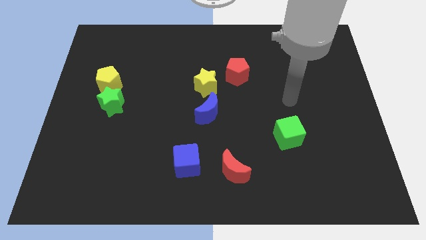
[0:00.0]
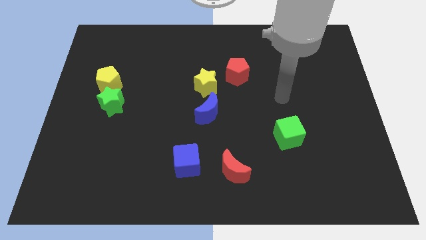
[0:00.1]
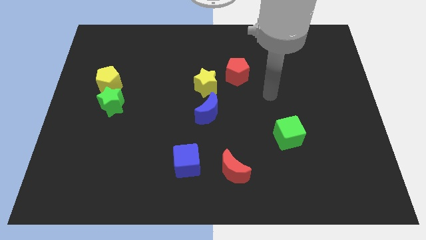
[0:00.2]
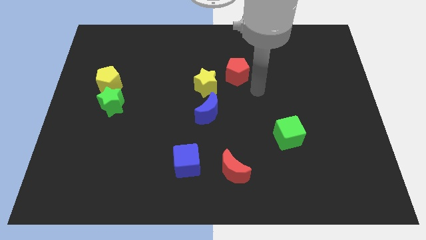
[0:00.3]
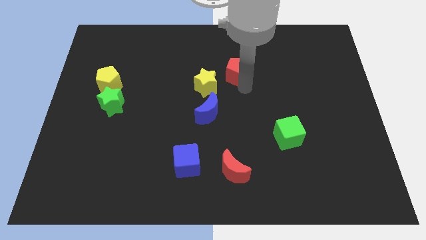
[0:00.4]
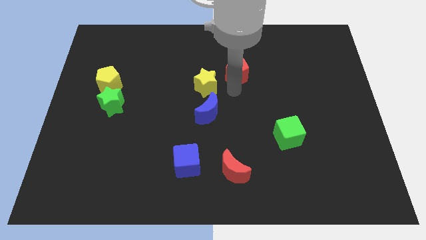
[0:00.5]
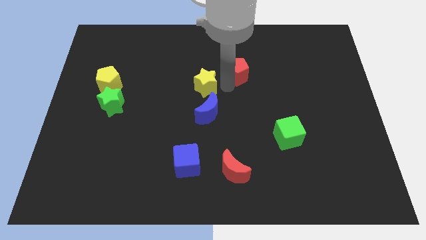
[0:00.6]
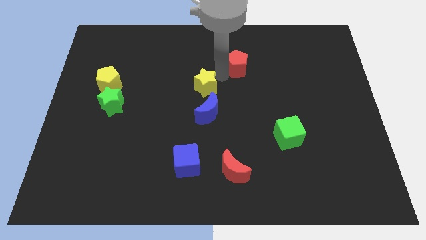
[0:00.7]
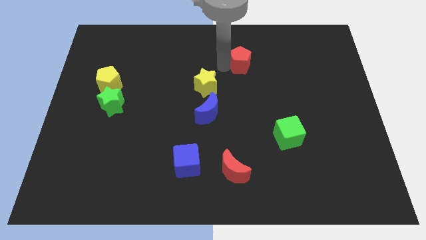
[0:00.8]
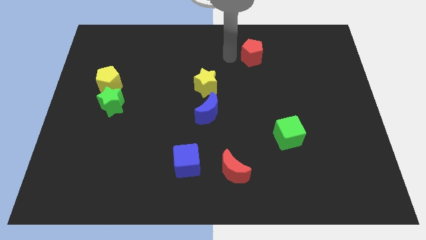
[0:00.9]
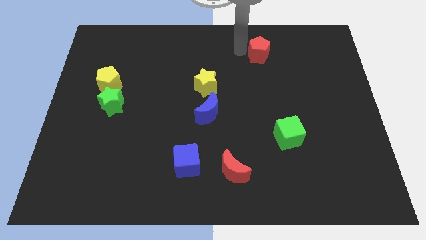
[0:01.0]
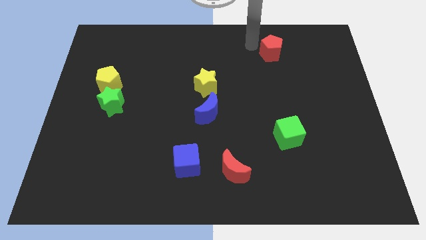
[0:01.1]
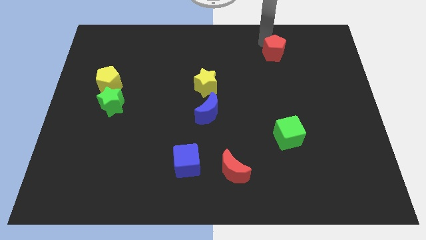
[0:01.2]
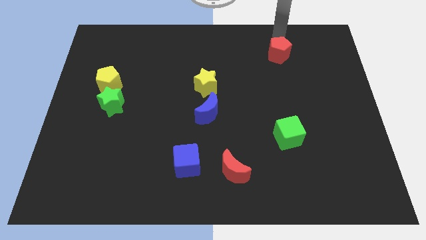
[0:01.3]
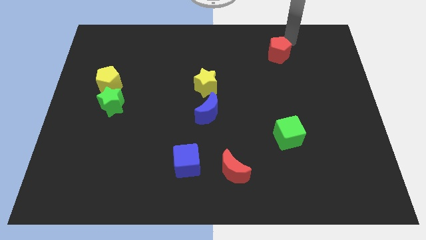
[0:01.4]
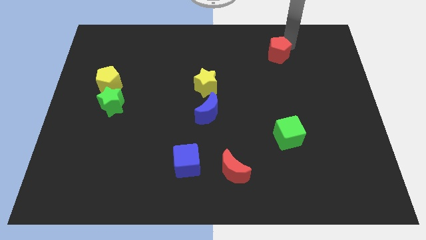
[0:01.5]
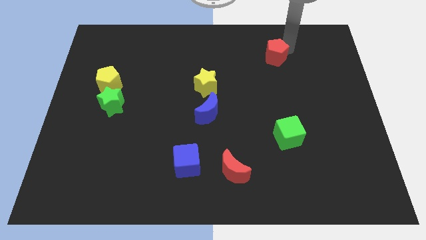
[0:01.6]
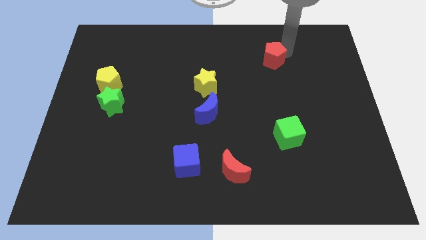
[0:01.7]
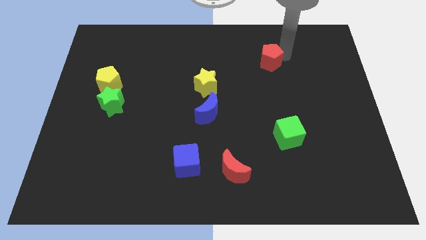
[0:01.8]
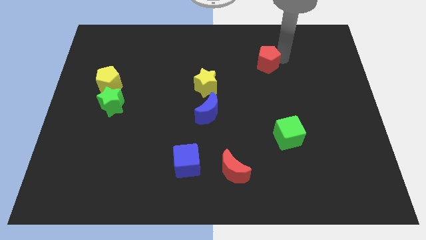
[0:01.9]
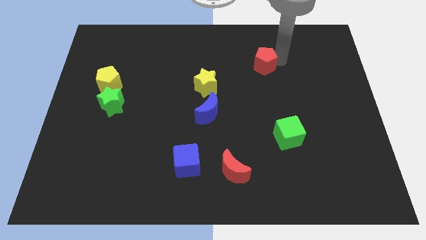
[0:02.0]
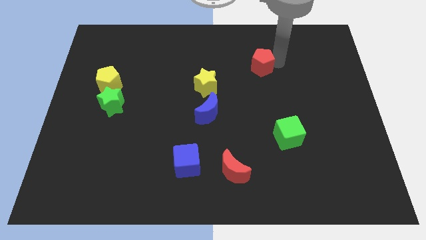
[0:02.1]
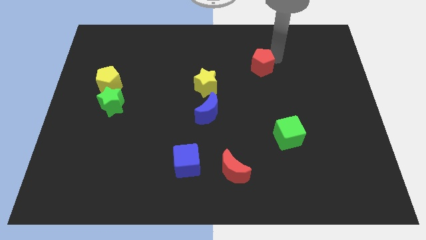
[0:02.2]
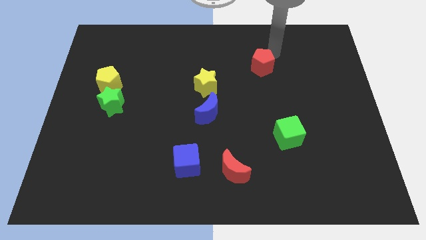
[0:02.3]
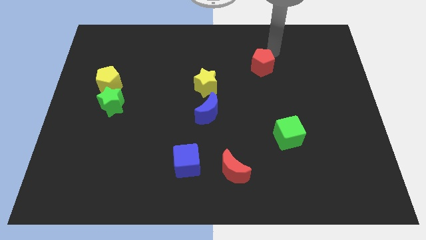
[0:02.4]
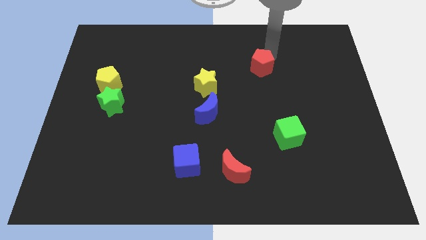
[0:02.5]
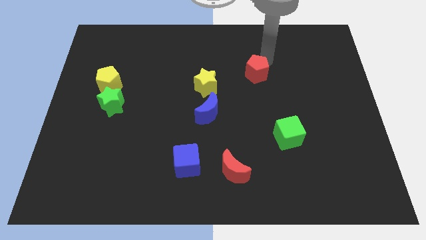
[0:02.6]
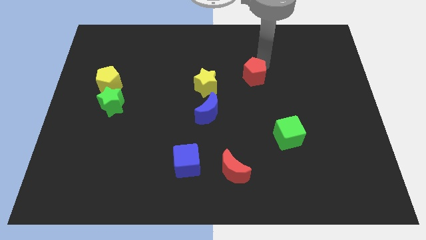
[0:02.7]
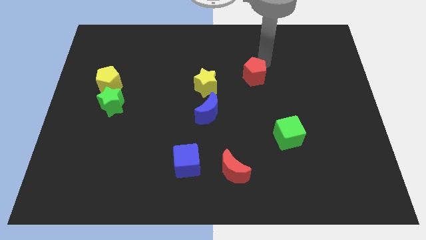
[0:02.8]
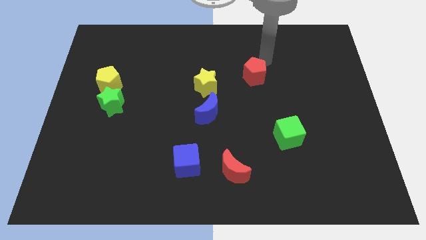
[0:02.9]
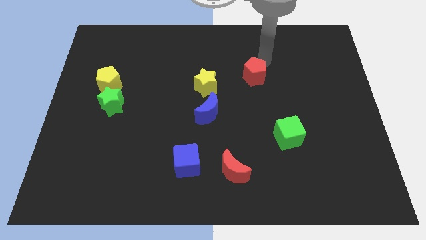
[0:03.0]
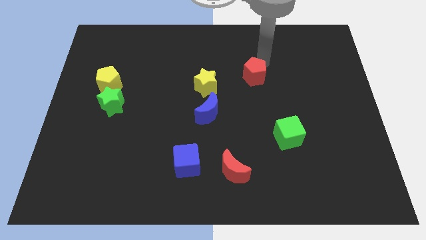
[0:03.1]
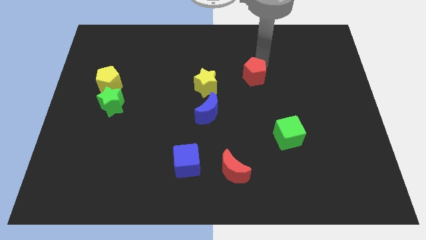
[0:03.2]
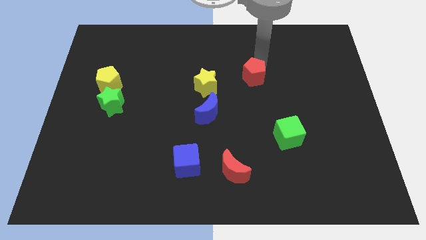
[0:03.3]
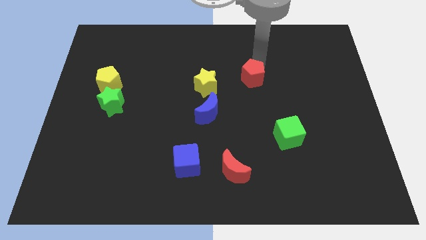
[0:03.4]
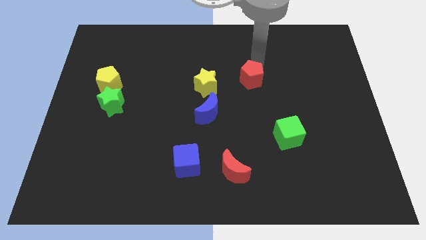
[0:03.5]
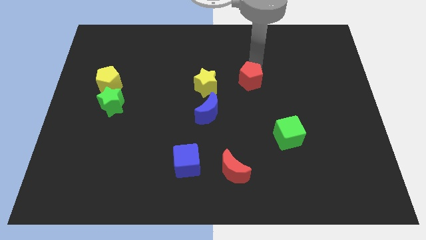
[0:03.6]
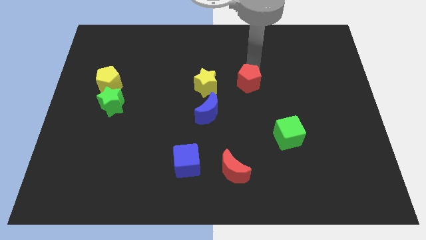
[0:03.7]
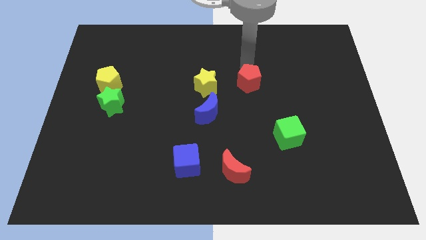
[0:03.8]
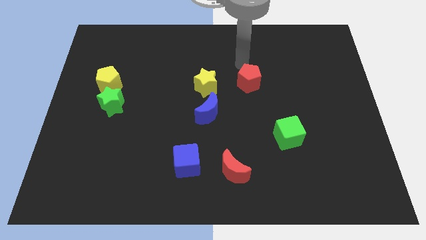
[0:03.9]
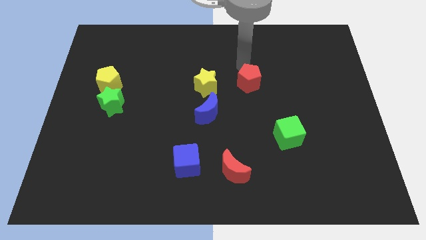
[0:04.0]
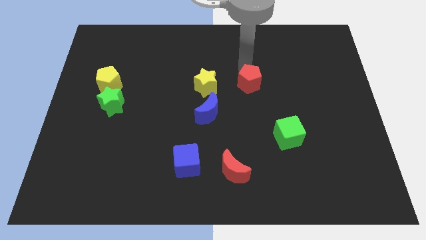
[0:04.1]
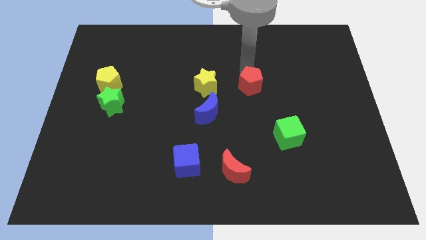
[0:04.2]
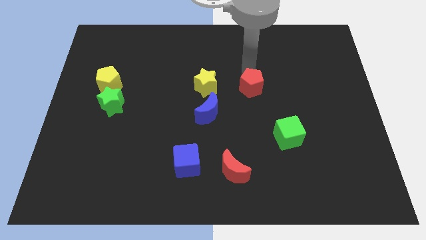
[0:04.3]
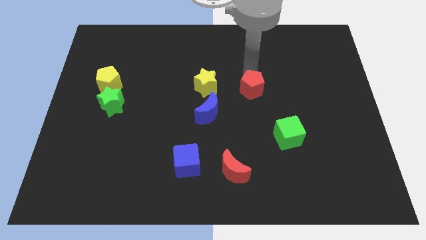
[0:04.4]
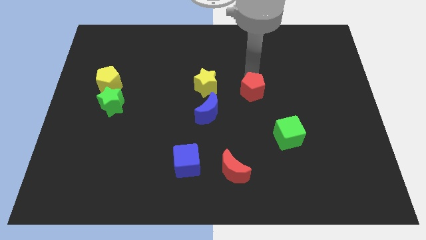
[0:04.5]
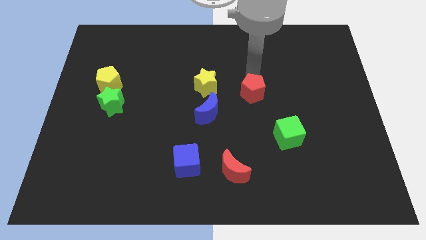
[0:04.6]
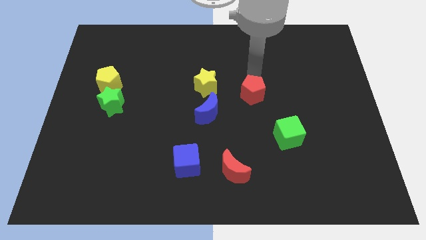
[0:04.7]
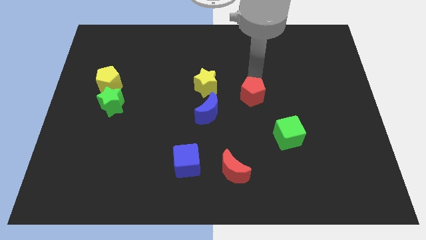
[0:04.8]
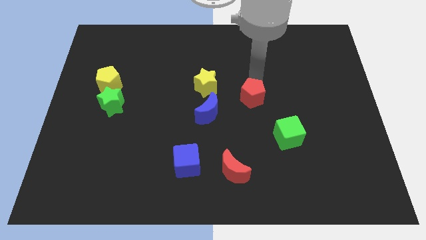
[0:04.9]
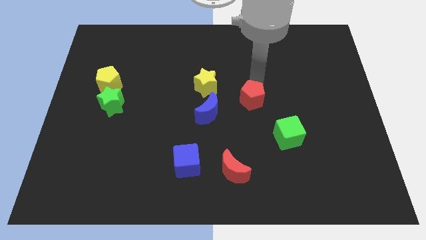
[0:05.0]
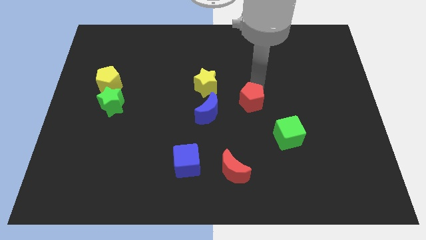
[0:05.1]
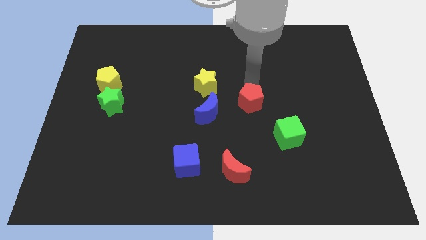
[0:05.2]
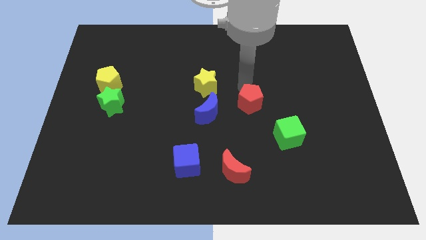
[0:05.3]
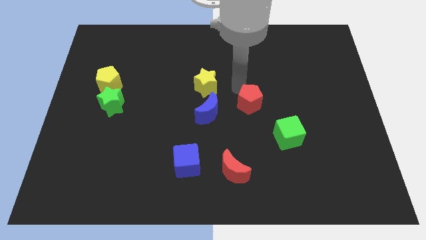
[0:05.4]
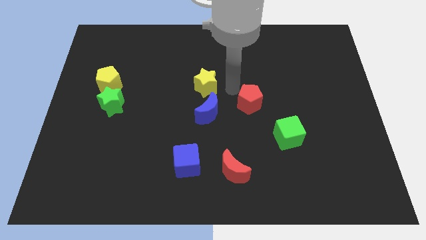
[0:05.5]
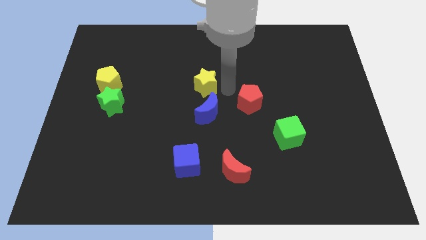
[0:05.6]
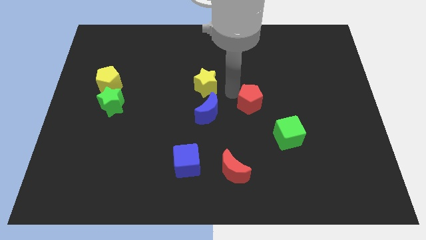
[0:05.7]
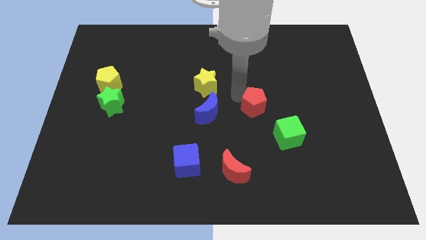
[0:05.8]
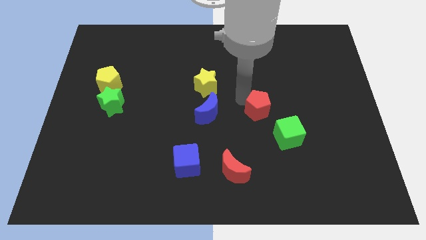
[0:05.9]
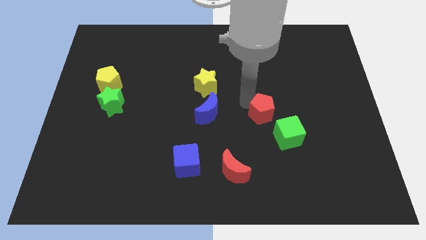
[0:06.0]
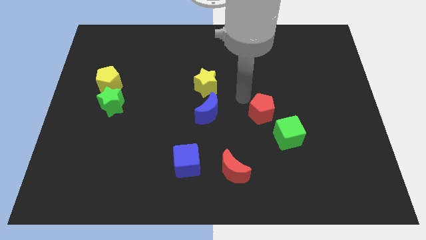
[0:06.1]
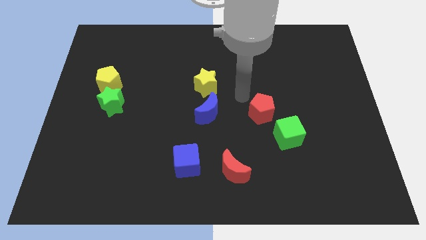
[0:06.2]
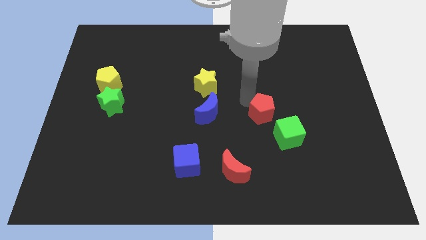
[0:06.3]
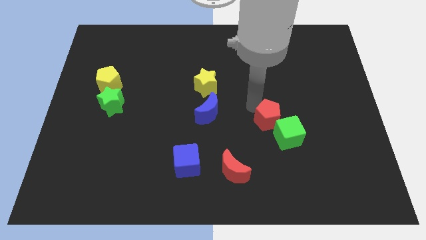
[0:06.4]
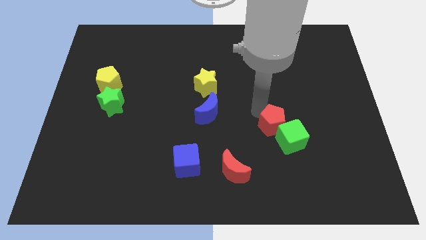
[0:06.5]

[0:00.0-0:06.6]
push the red pentagon next to the green cube
